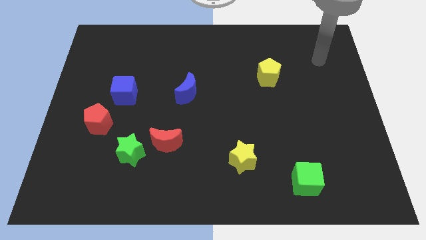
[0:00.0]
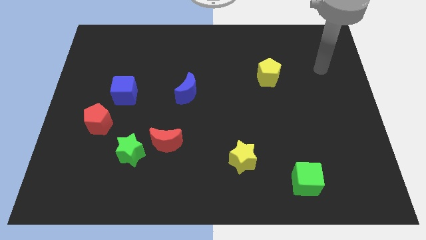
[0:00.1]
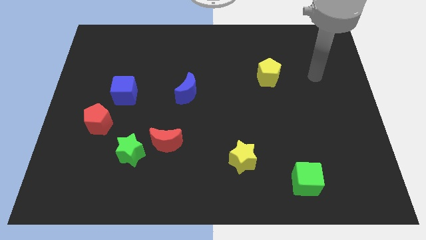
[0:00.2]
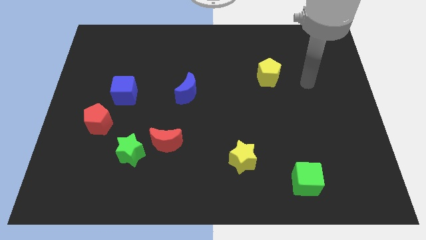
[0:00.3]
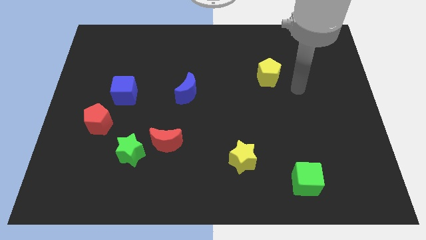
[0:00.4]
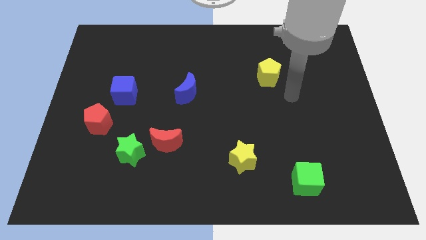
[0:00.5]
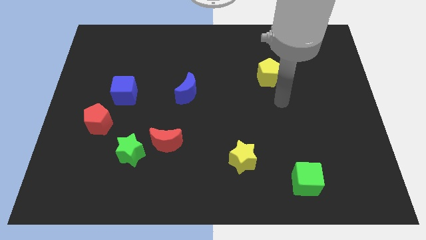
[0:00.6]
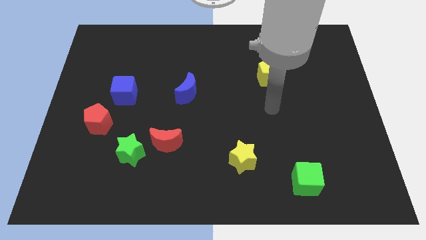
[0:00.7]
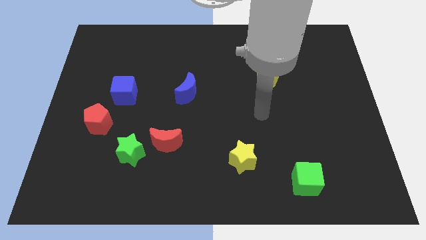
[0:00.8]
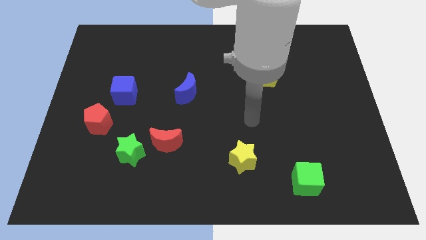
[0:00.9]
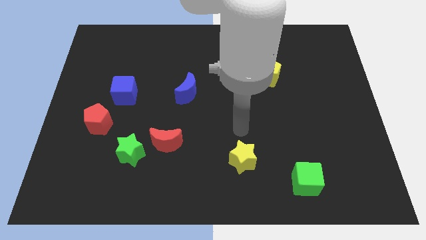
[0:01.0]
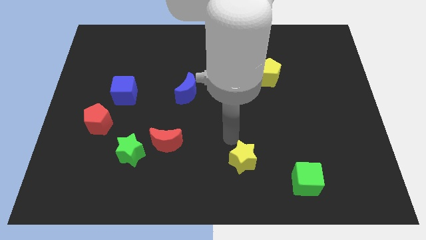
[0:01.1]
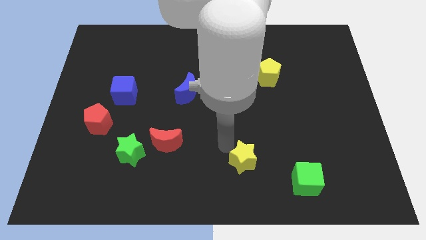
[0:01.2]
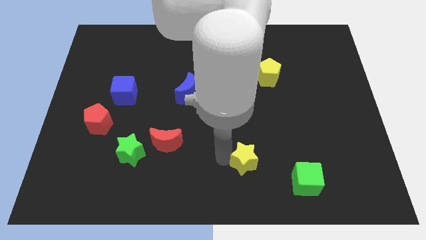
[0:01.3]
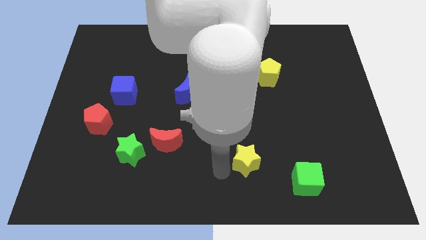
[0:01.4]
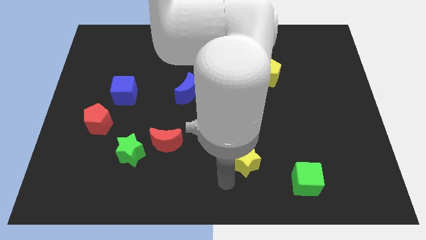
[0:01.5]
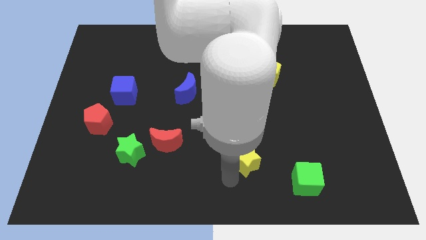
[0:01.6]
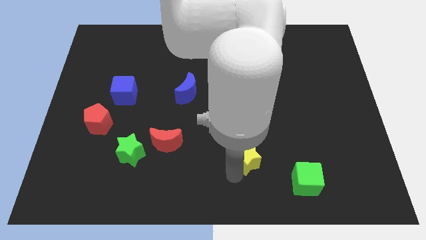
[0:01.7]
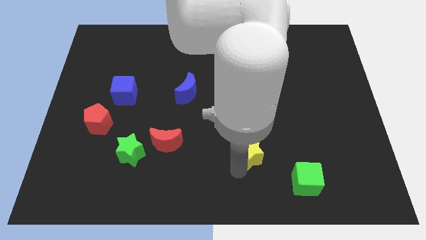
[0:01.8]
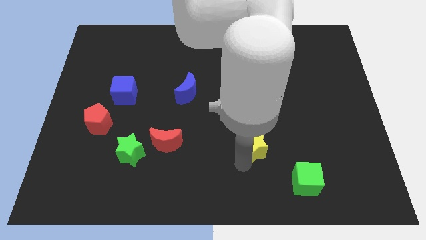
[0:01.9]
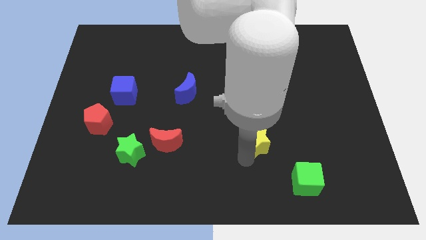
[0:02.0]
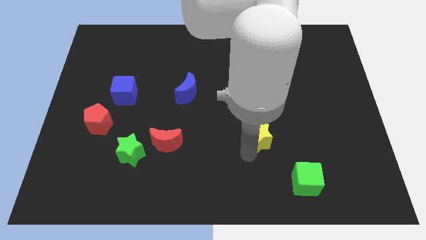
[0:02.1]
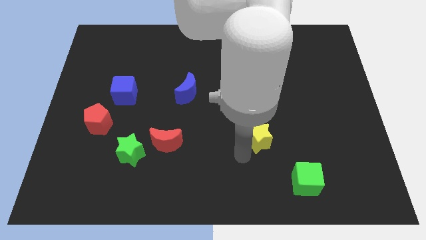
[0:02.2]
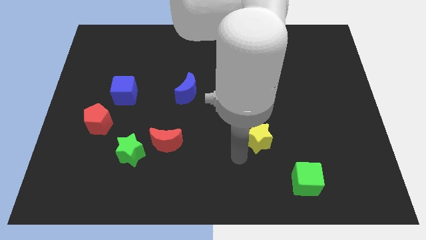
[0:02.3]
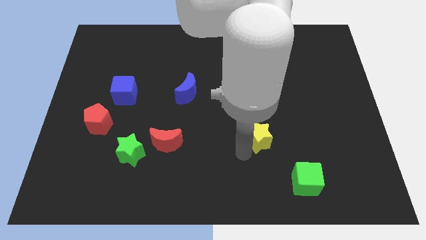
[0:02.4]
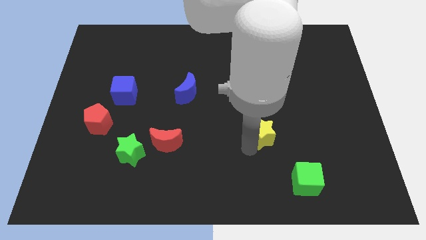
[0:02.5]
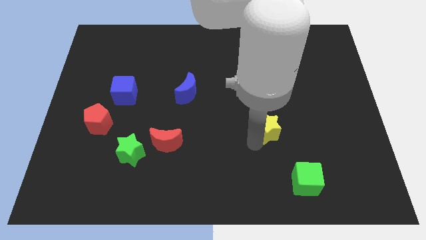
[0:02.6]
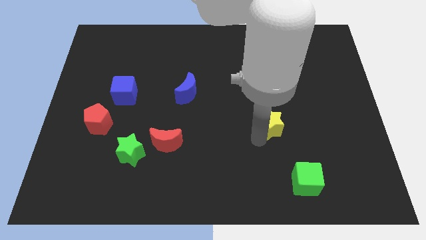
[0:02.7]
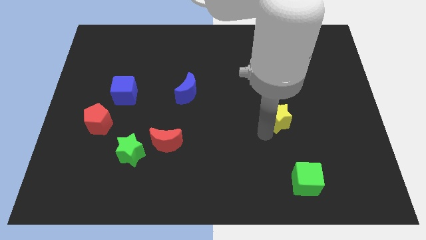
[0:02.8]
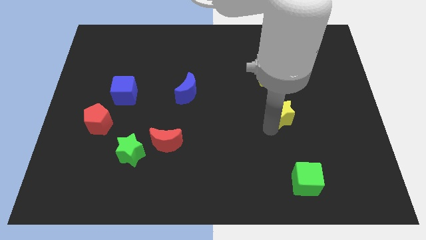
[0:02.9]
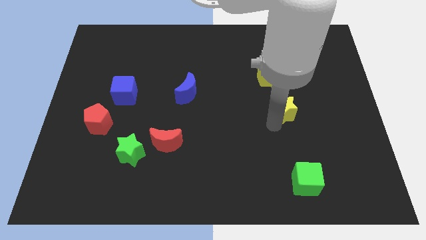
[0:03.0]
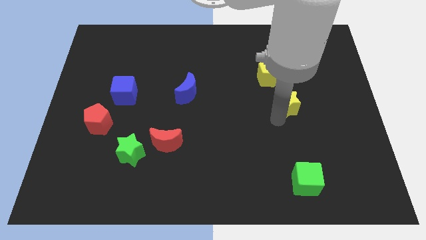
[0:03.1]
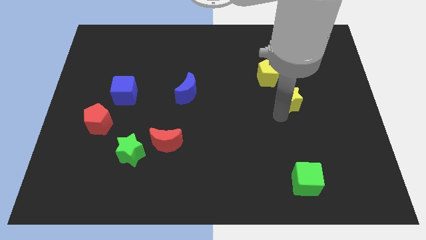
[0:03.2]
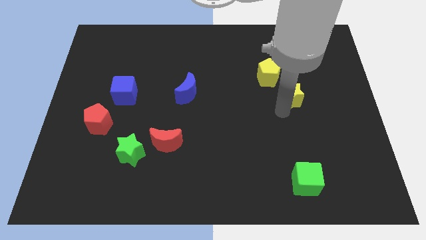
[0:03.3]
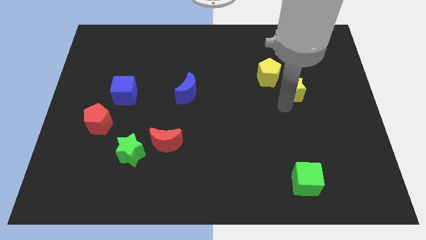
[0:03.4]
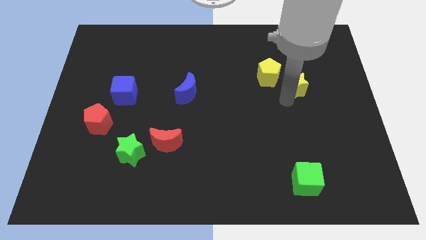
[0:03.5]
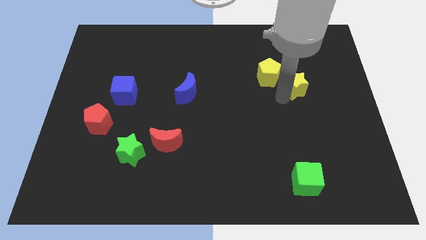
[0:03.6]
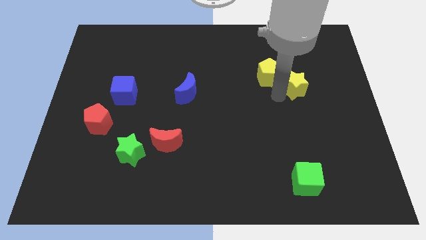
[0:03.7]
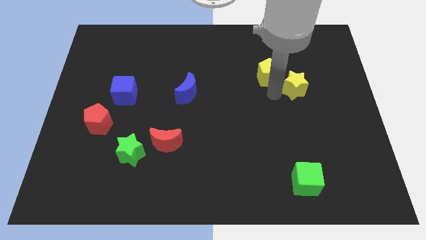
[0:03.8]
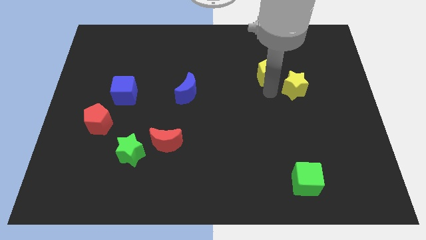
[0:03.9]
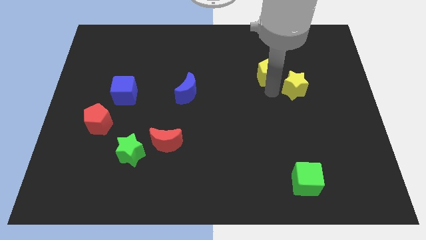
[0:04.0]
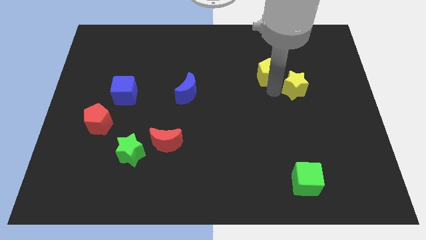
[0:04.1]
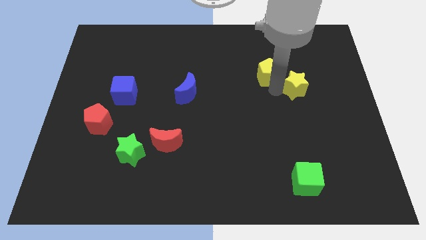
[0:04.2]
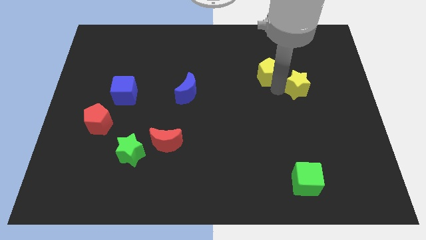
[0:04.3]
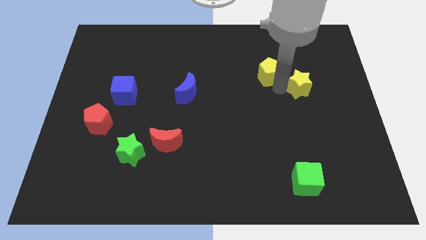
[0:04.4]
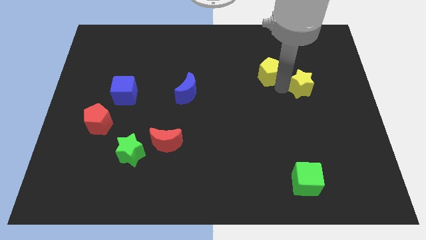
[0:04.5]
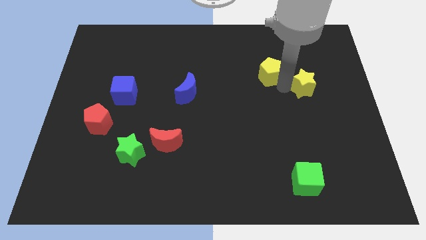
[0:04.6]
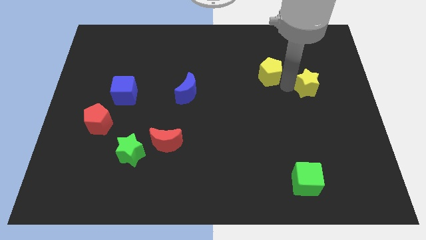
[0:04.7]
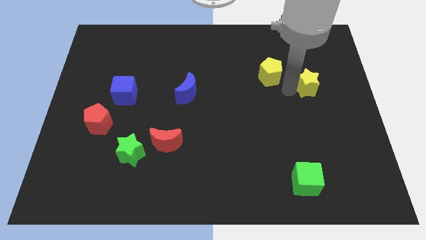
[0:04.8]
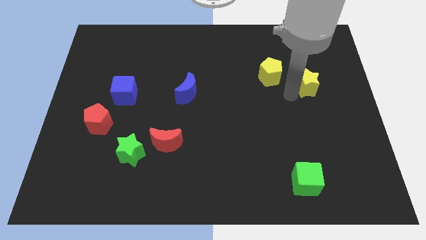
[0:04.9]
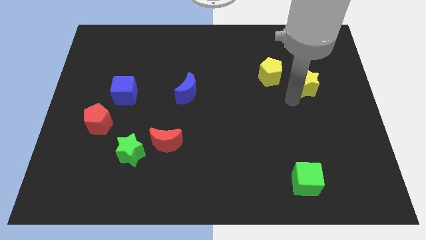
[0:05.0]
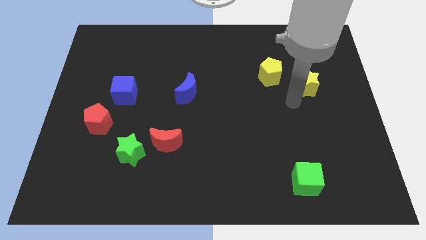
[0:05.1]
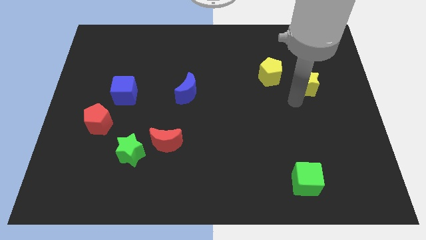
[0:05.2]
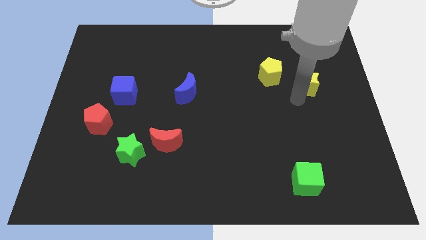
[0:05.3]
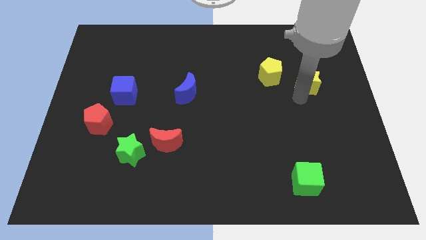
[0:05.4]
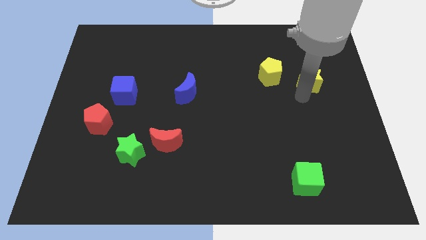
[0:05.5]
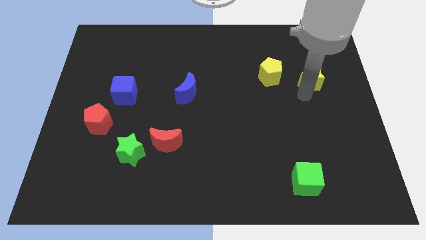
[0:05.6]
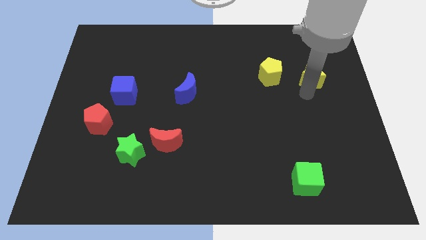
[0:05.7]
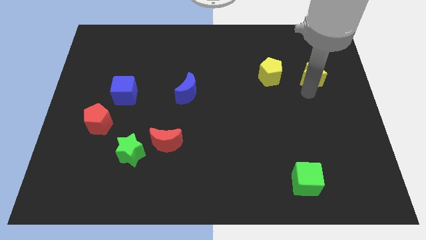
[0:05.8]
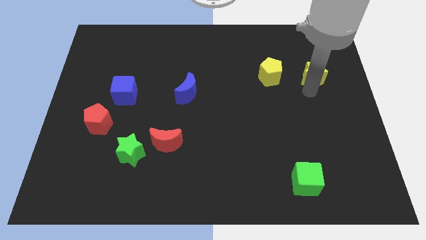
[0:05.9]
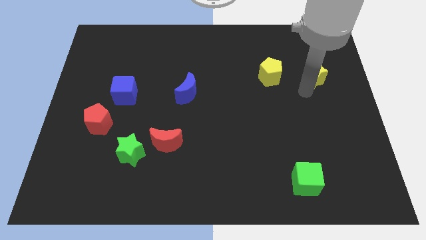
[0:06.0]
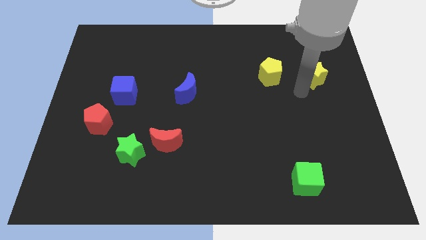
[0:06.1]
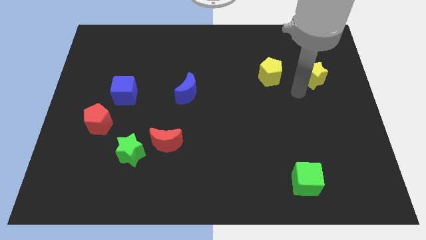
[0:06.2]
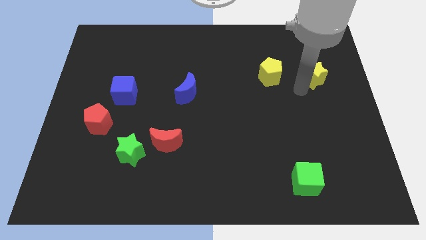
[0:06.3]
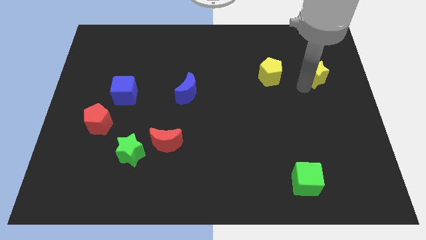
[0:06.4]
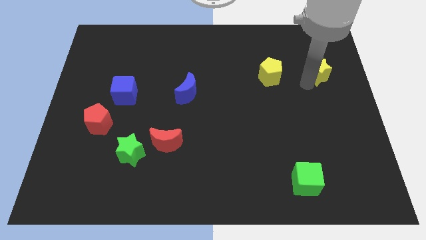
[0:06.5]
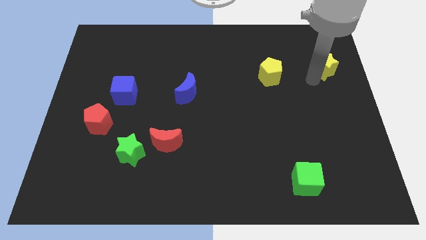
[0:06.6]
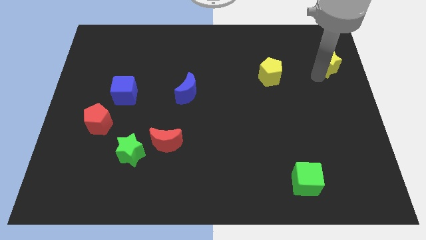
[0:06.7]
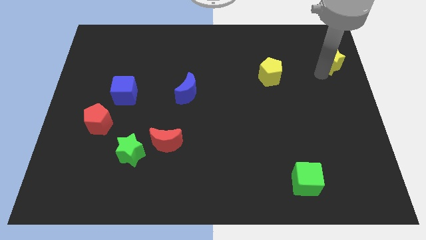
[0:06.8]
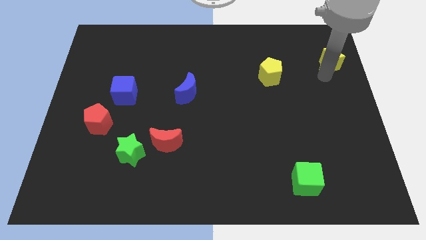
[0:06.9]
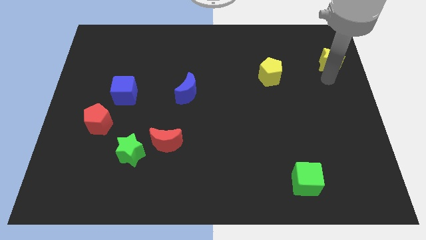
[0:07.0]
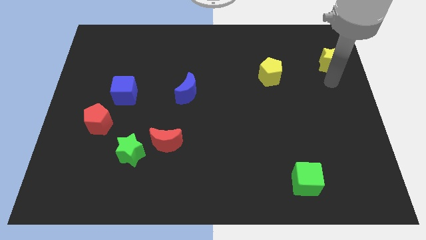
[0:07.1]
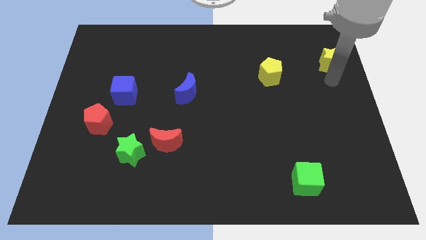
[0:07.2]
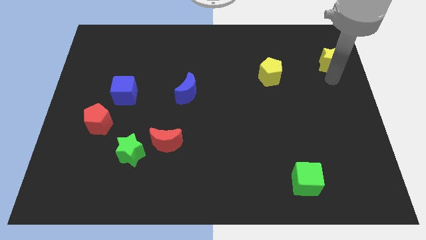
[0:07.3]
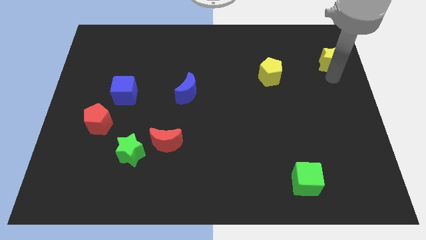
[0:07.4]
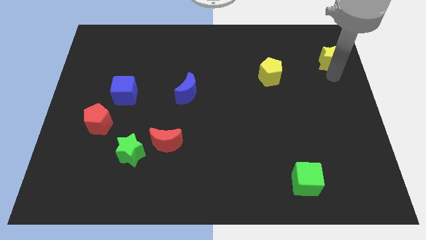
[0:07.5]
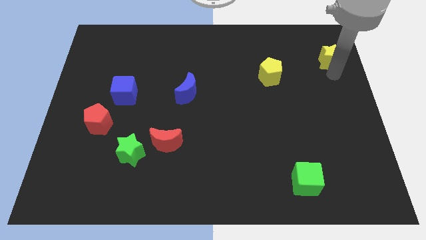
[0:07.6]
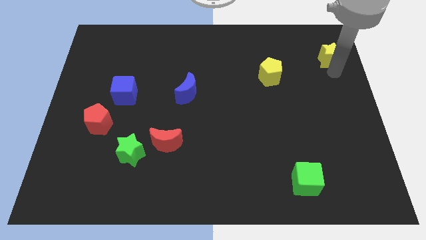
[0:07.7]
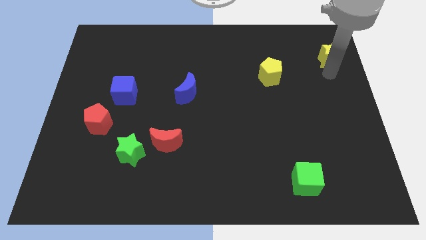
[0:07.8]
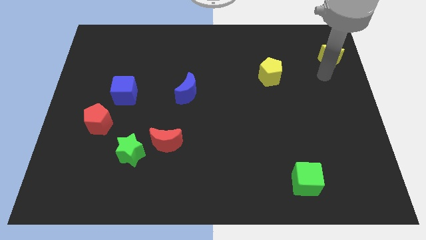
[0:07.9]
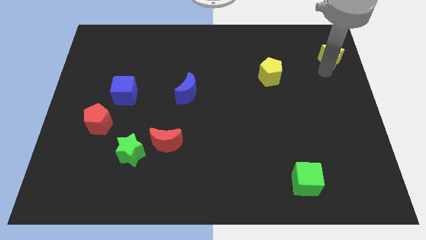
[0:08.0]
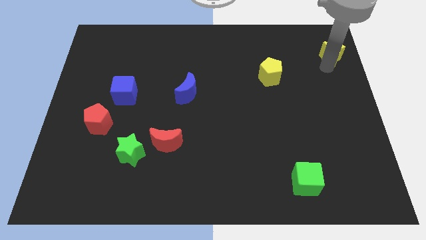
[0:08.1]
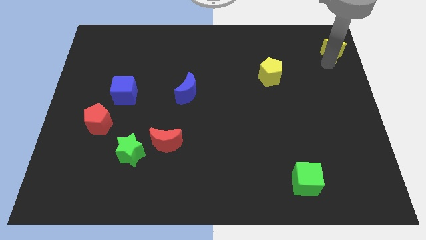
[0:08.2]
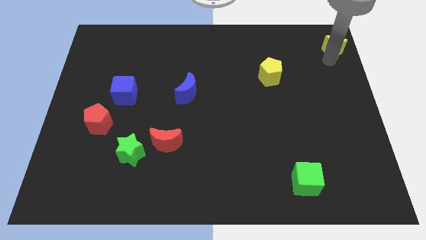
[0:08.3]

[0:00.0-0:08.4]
slide the yellow star to the top right corner

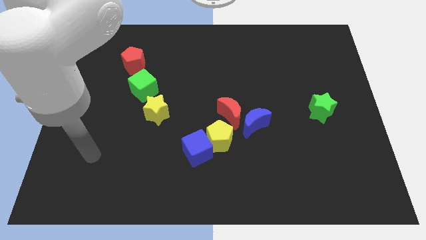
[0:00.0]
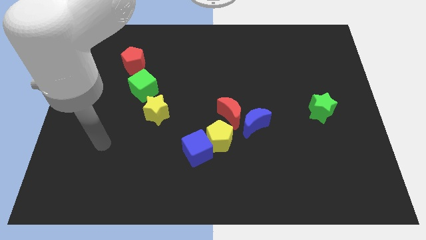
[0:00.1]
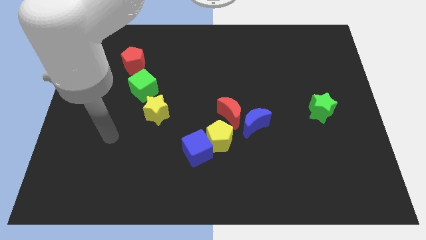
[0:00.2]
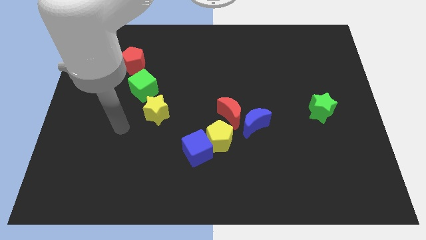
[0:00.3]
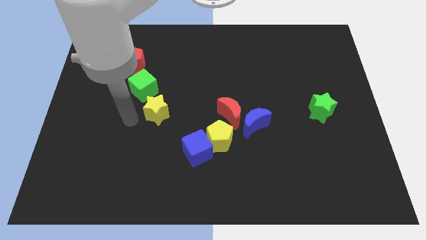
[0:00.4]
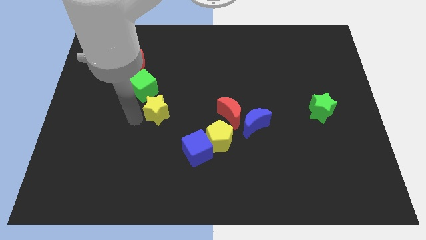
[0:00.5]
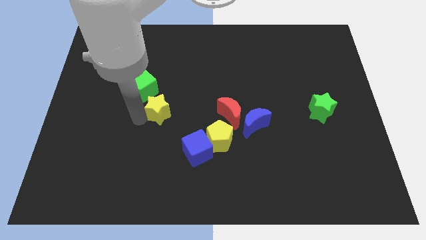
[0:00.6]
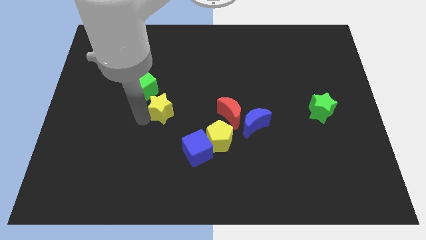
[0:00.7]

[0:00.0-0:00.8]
push the yellow star to the middle of the board
